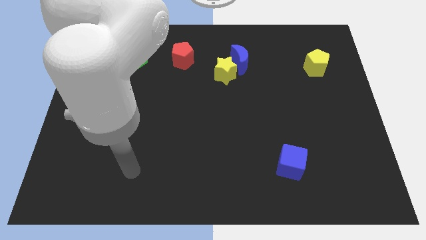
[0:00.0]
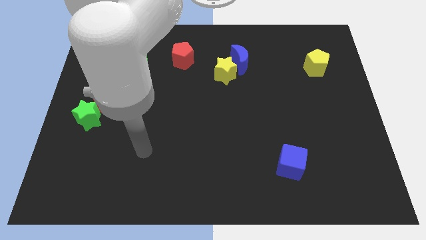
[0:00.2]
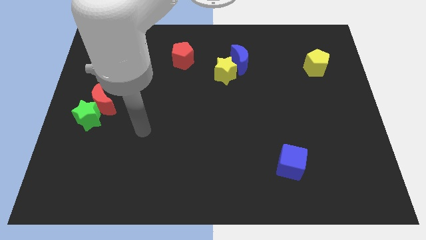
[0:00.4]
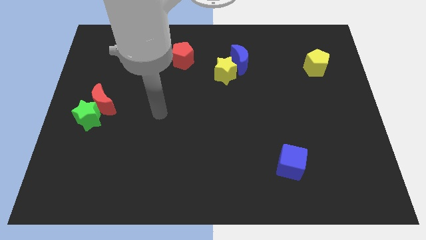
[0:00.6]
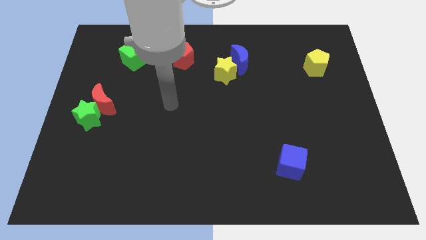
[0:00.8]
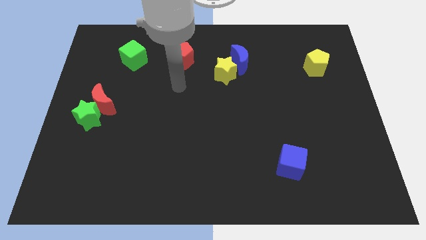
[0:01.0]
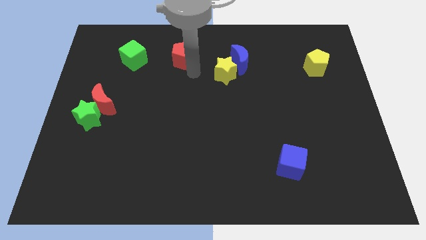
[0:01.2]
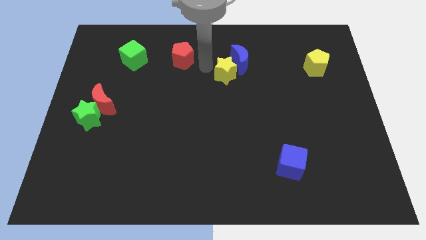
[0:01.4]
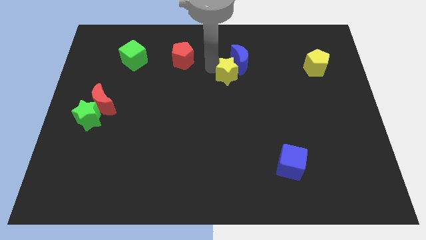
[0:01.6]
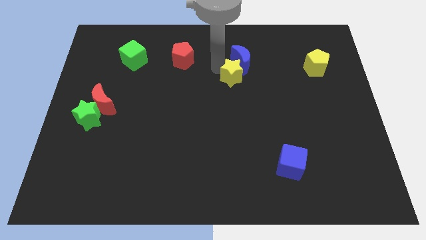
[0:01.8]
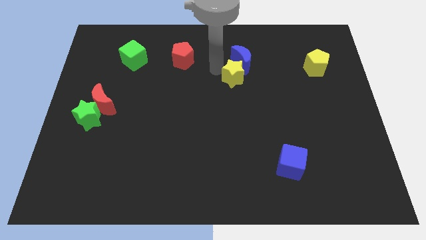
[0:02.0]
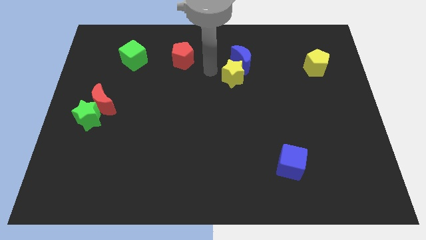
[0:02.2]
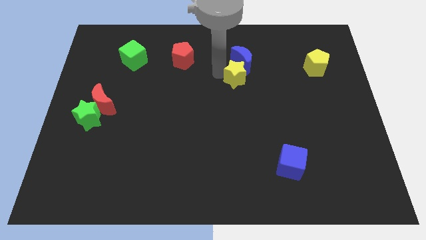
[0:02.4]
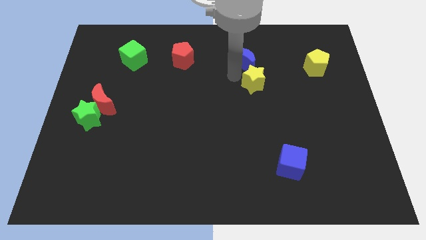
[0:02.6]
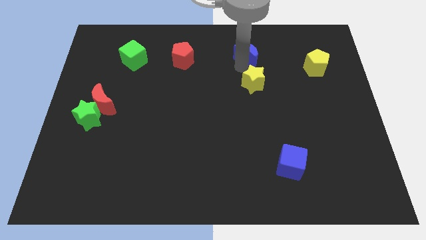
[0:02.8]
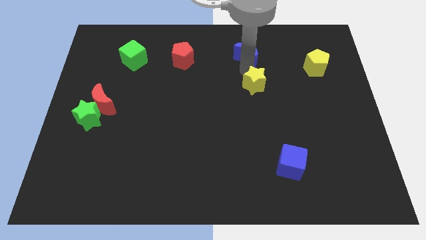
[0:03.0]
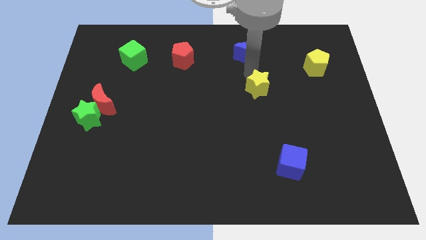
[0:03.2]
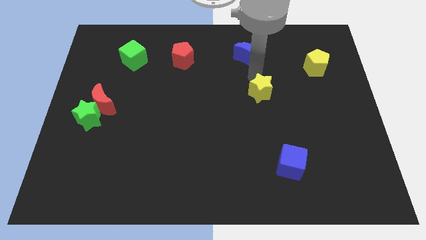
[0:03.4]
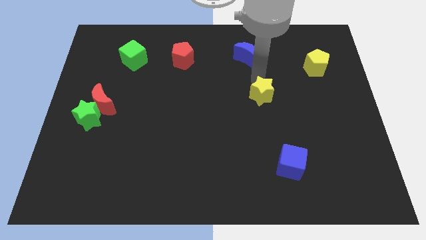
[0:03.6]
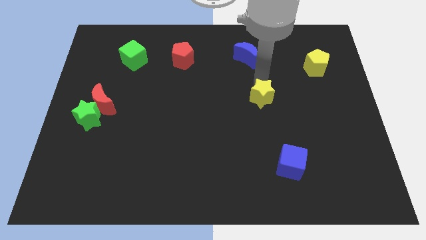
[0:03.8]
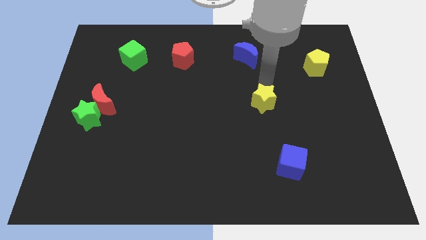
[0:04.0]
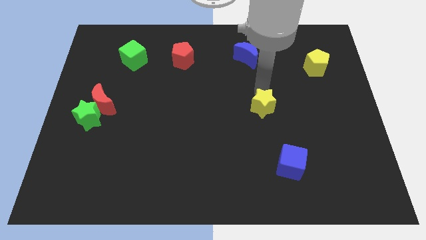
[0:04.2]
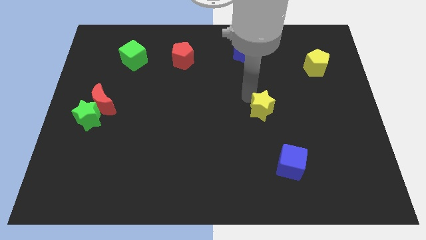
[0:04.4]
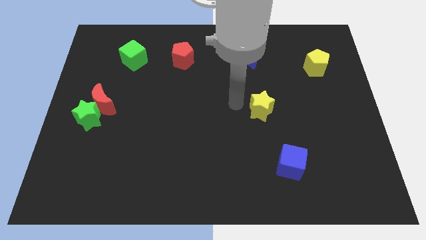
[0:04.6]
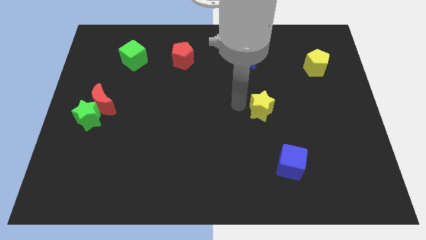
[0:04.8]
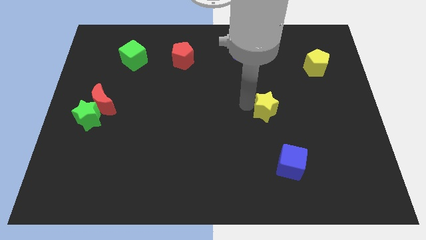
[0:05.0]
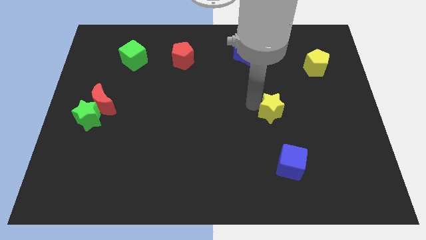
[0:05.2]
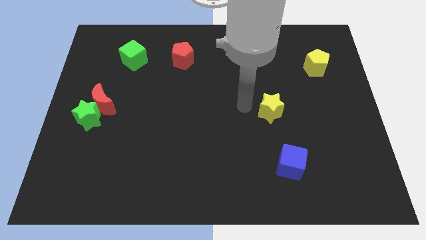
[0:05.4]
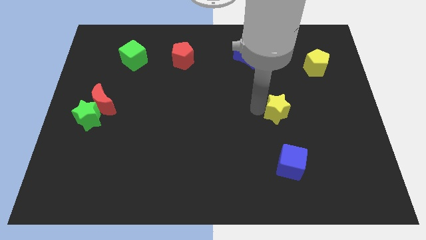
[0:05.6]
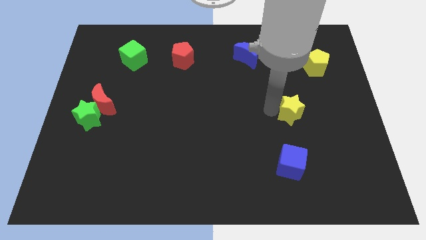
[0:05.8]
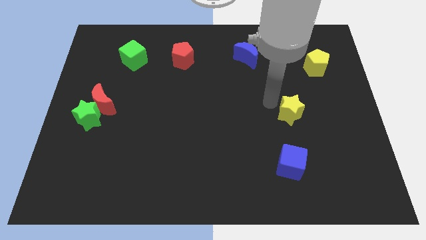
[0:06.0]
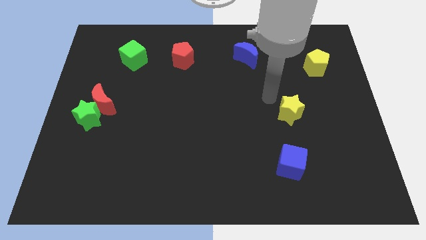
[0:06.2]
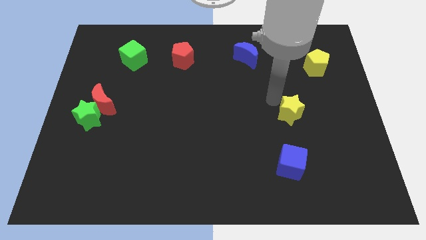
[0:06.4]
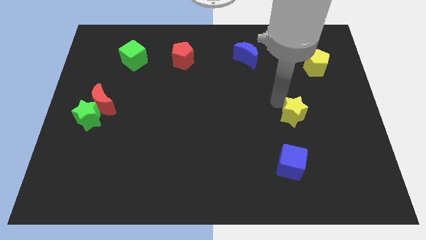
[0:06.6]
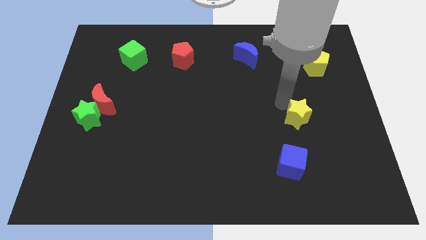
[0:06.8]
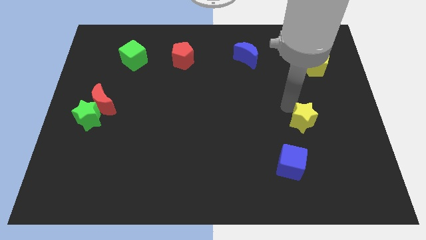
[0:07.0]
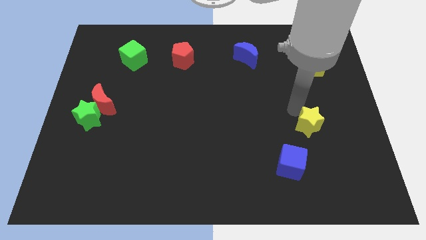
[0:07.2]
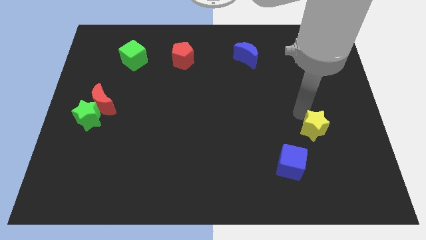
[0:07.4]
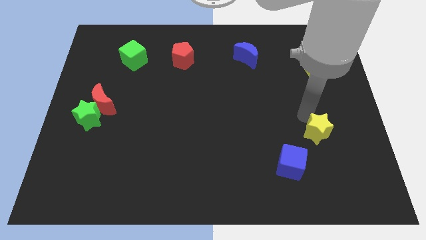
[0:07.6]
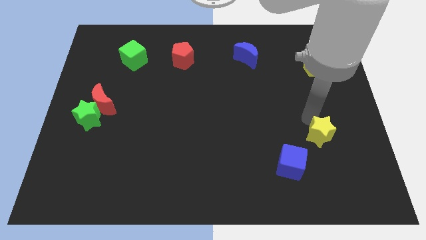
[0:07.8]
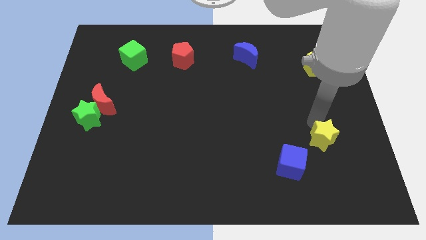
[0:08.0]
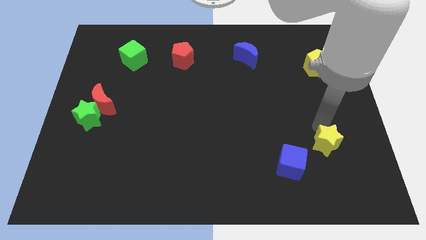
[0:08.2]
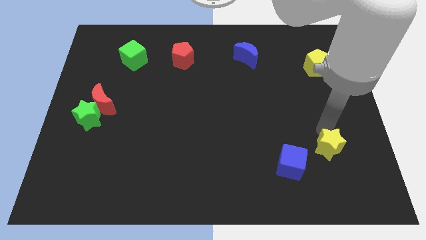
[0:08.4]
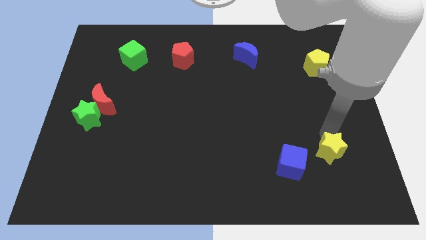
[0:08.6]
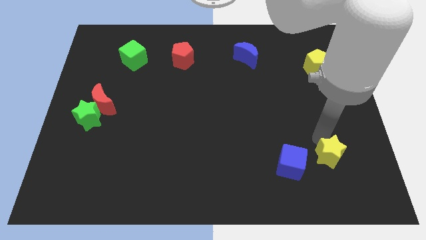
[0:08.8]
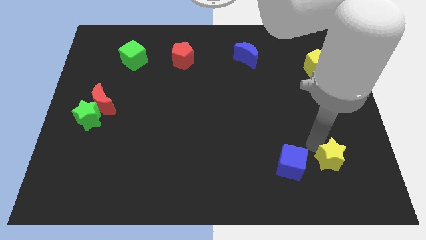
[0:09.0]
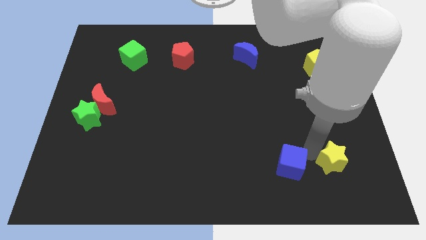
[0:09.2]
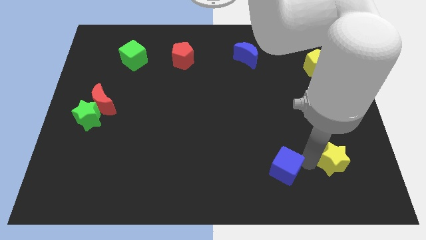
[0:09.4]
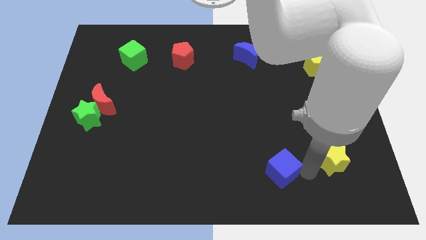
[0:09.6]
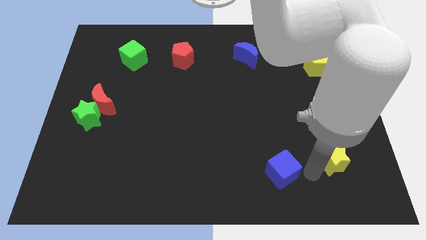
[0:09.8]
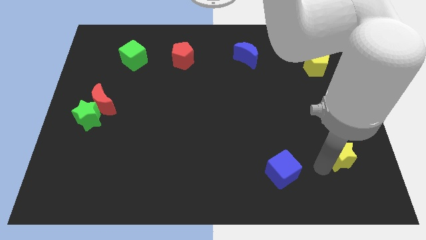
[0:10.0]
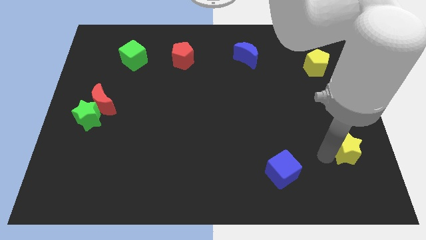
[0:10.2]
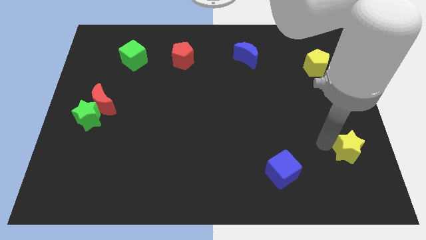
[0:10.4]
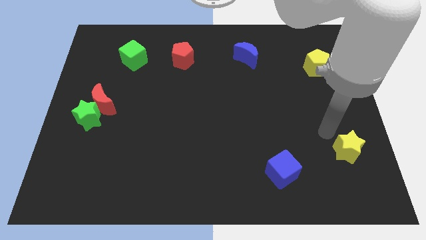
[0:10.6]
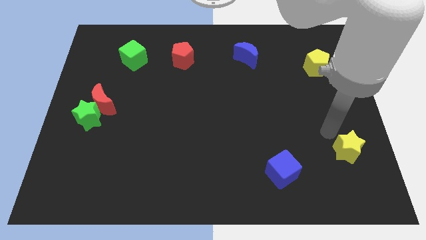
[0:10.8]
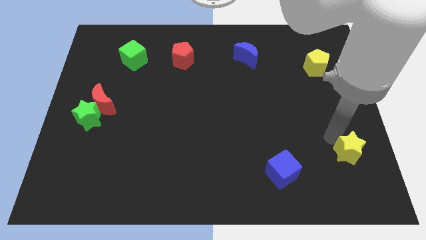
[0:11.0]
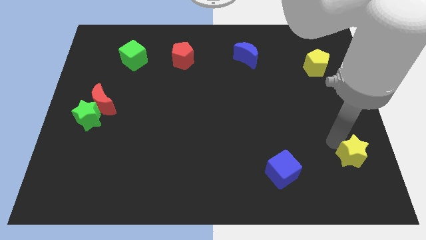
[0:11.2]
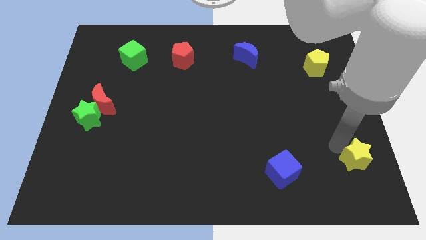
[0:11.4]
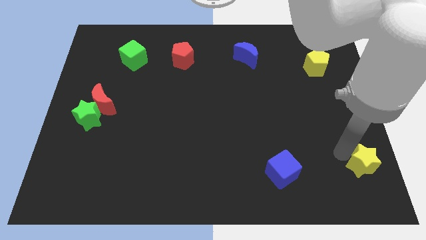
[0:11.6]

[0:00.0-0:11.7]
move the yellow star to the bottom right corner
